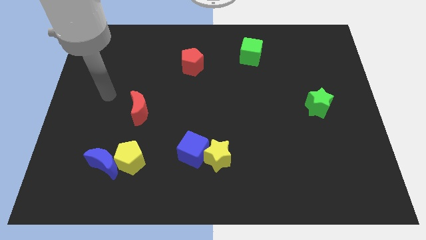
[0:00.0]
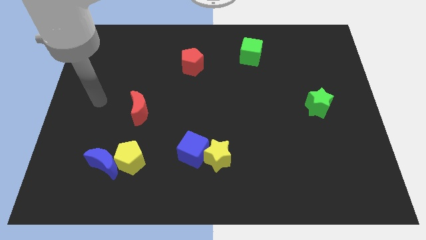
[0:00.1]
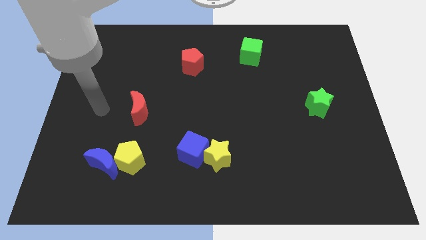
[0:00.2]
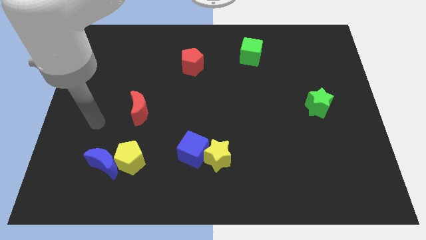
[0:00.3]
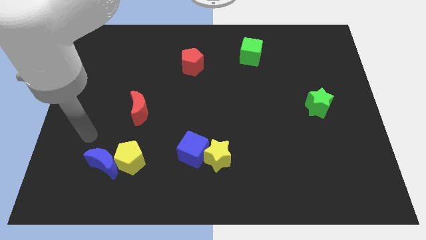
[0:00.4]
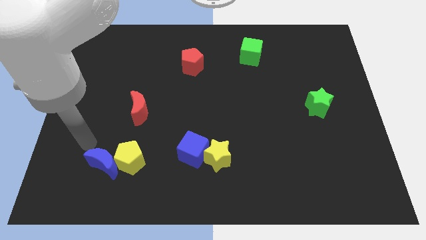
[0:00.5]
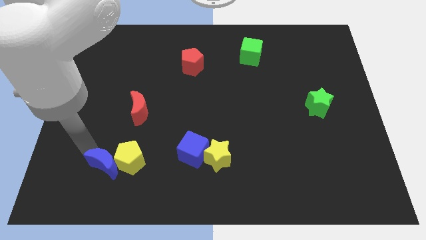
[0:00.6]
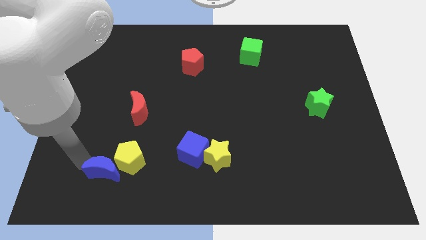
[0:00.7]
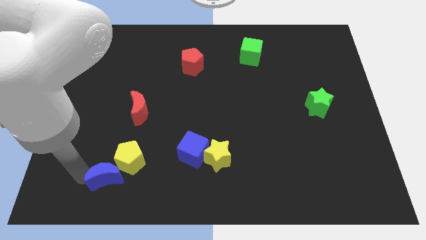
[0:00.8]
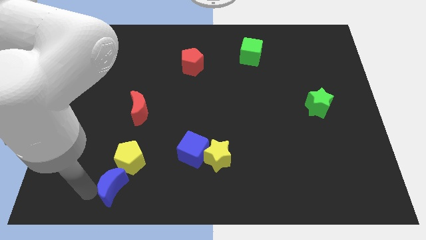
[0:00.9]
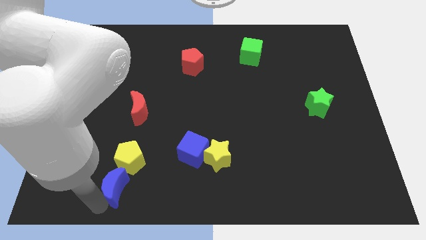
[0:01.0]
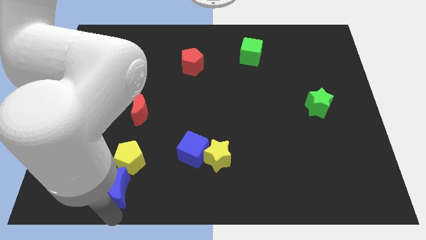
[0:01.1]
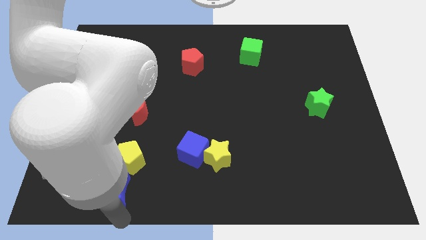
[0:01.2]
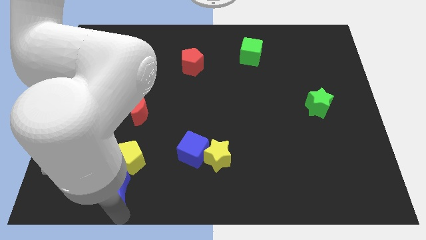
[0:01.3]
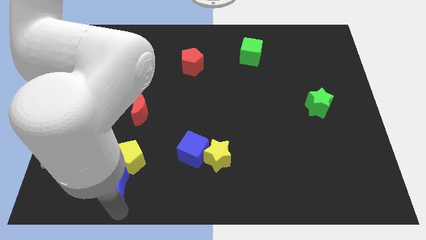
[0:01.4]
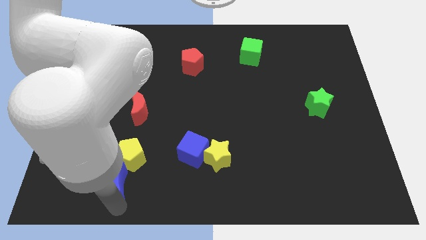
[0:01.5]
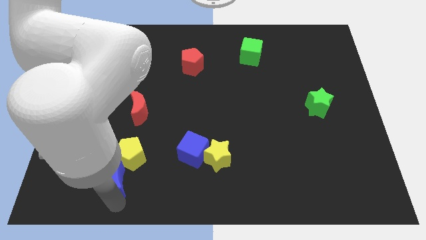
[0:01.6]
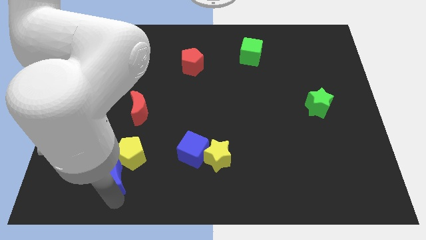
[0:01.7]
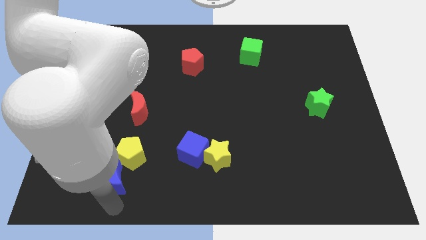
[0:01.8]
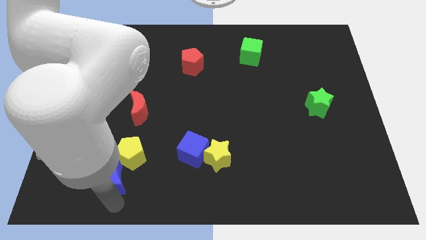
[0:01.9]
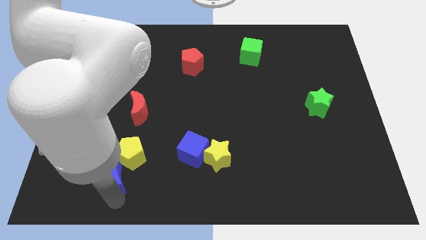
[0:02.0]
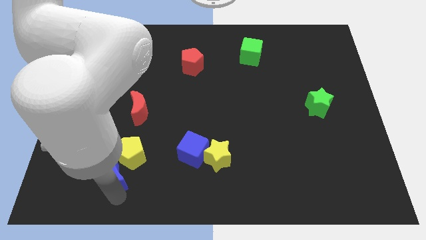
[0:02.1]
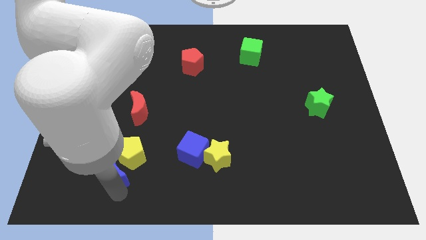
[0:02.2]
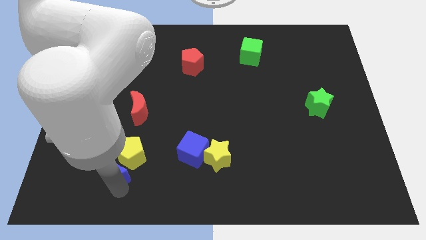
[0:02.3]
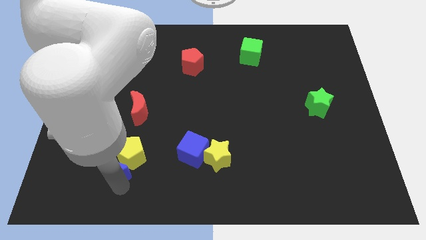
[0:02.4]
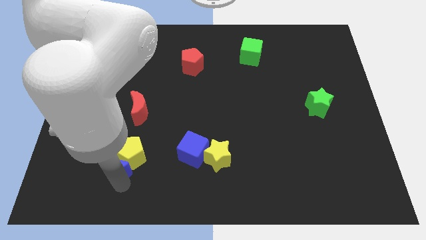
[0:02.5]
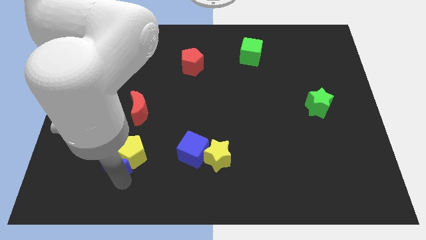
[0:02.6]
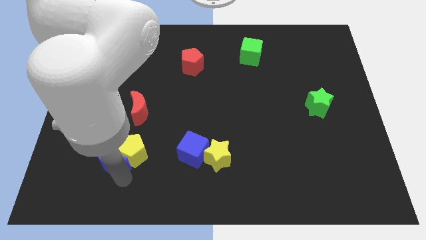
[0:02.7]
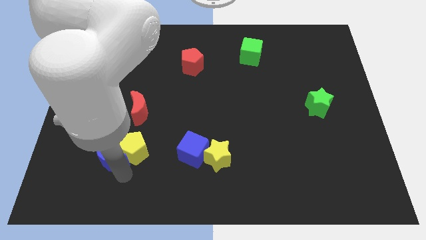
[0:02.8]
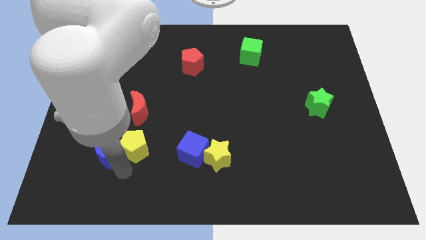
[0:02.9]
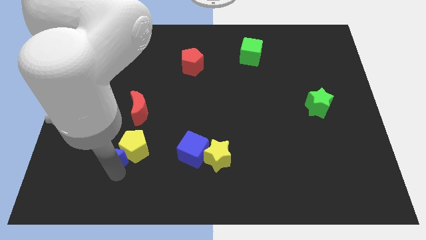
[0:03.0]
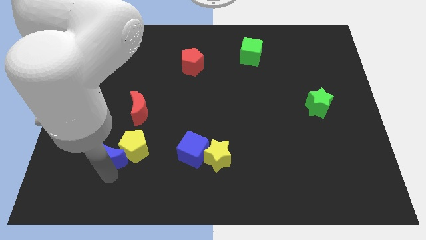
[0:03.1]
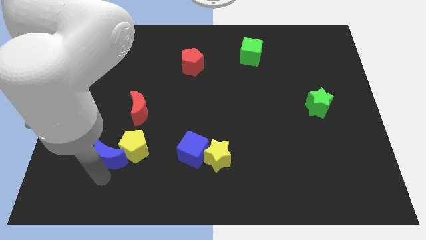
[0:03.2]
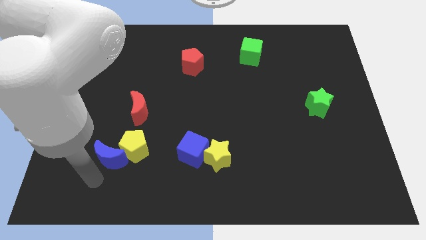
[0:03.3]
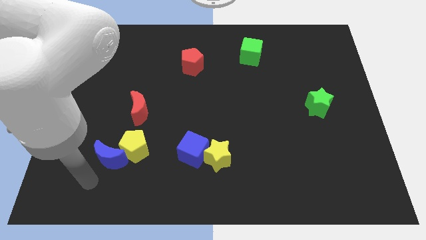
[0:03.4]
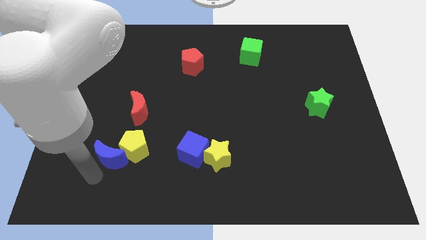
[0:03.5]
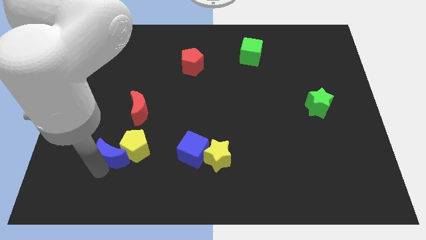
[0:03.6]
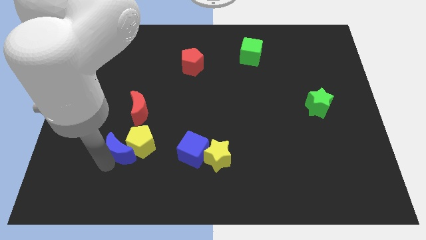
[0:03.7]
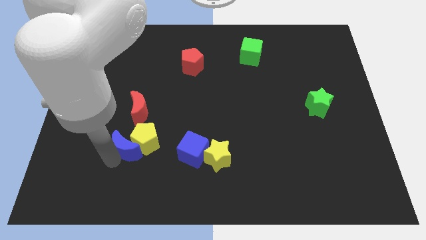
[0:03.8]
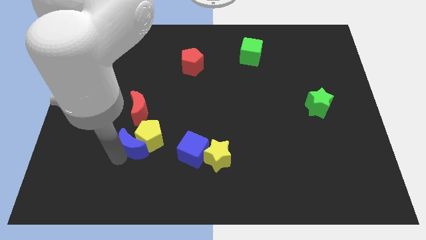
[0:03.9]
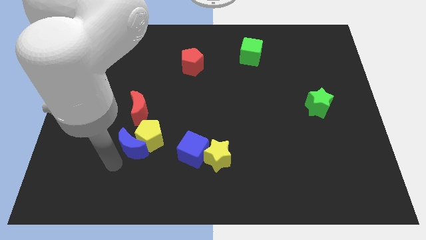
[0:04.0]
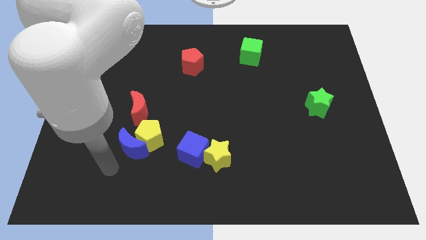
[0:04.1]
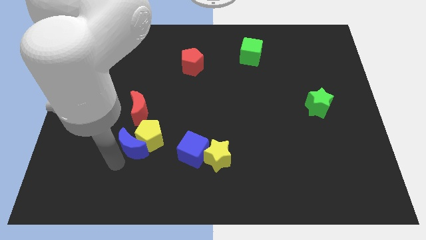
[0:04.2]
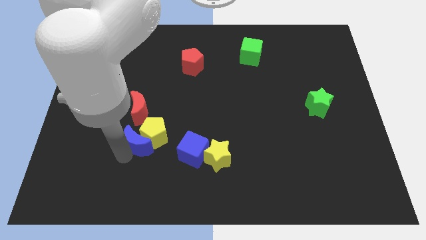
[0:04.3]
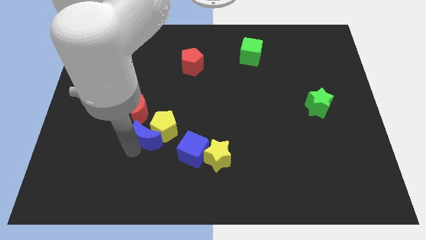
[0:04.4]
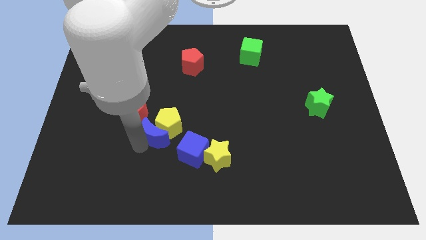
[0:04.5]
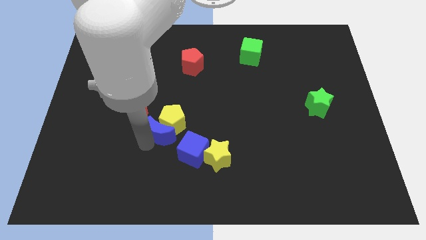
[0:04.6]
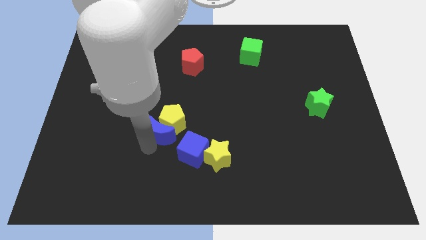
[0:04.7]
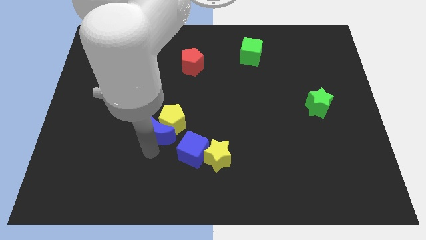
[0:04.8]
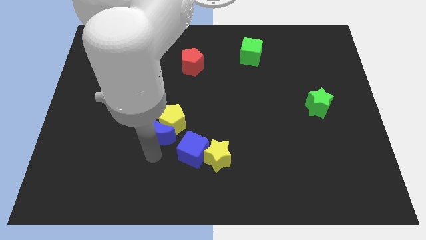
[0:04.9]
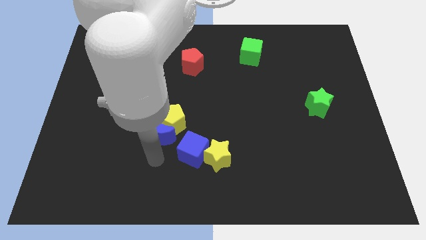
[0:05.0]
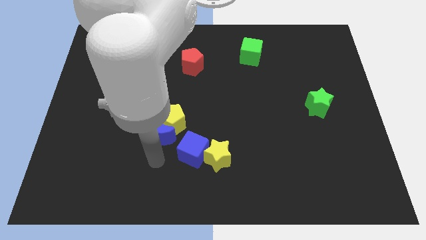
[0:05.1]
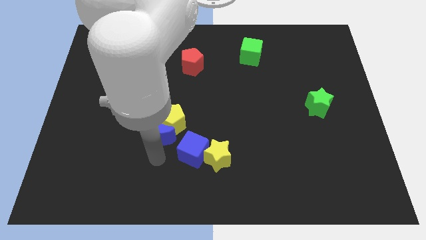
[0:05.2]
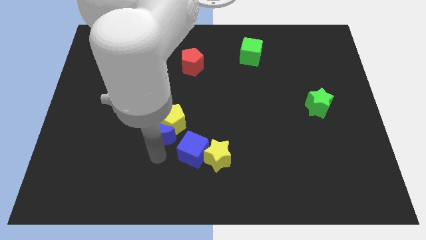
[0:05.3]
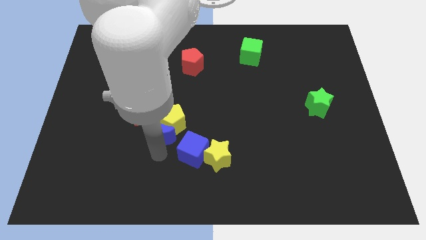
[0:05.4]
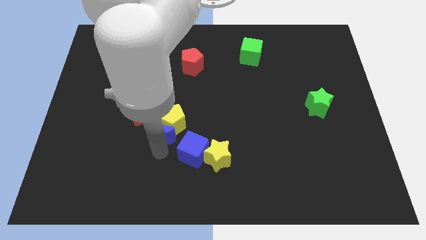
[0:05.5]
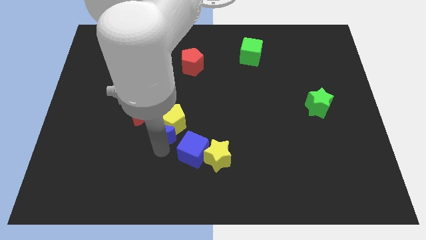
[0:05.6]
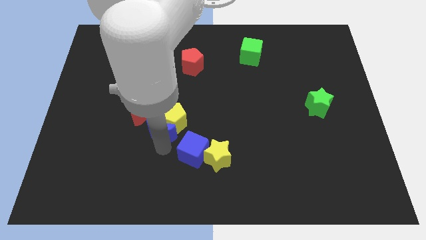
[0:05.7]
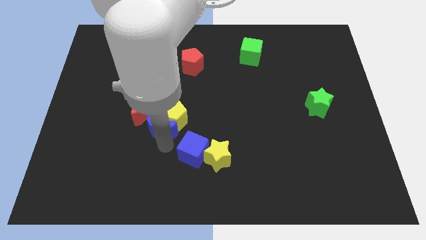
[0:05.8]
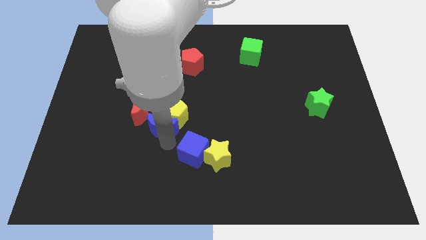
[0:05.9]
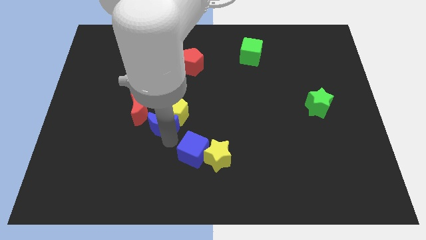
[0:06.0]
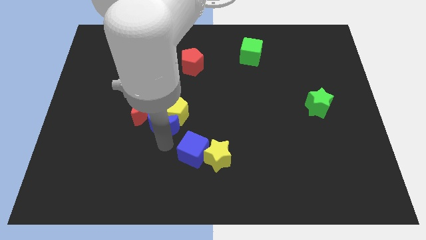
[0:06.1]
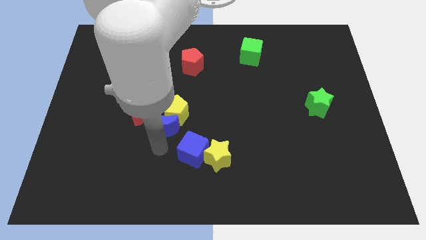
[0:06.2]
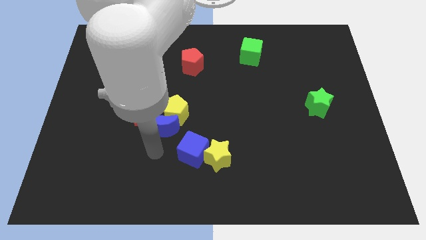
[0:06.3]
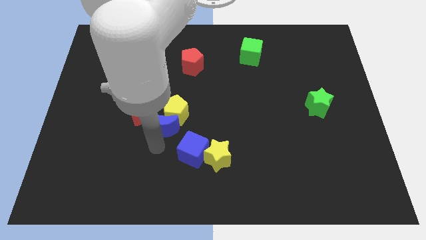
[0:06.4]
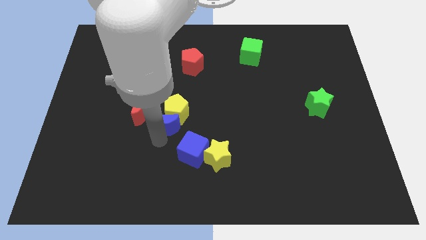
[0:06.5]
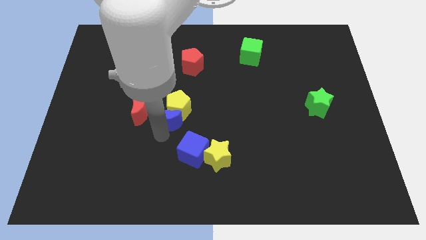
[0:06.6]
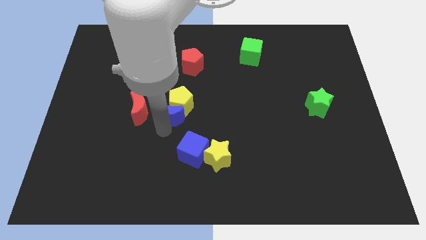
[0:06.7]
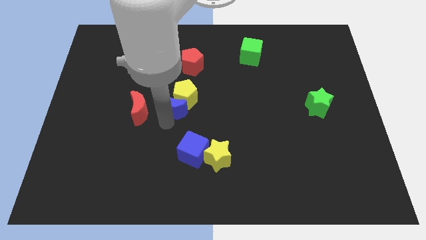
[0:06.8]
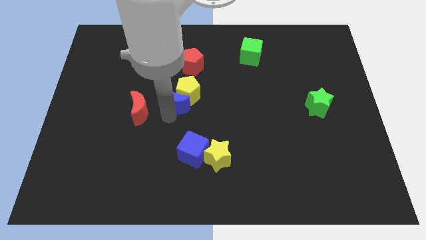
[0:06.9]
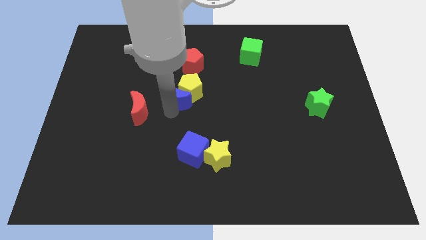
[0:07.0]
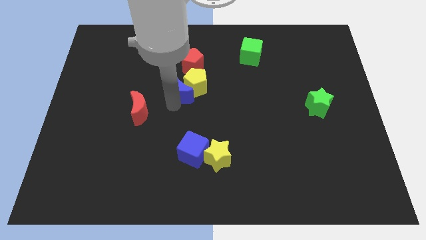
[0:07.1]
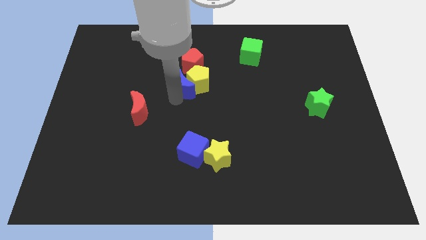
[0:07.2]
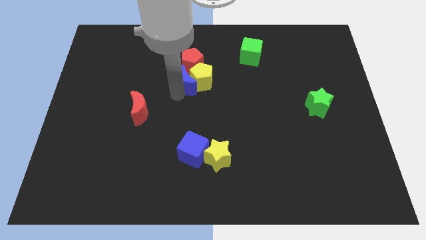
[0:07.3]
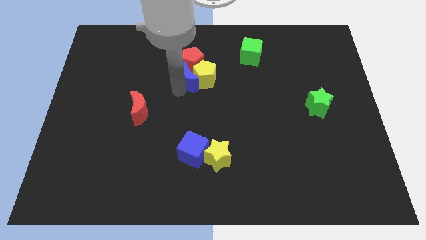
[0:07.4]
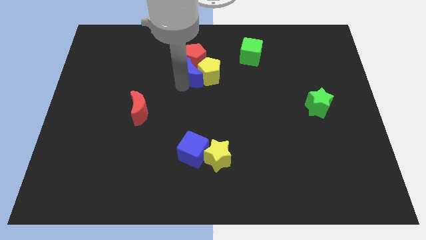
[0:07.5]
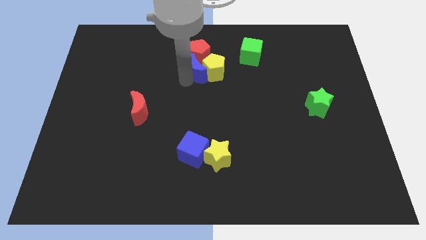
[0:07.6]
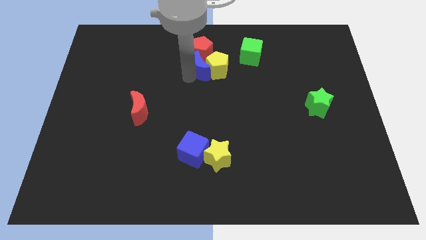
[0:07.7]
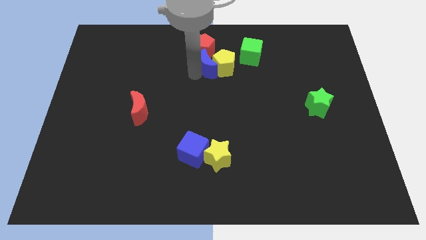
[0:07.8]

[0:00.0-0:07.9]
put the blue moon left of the green cube
